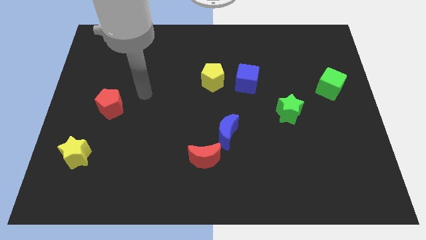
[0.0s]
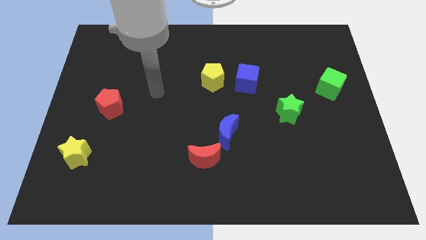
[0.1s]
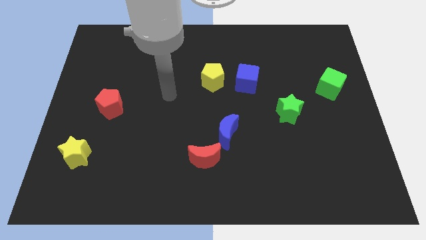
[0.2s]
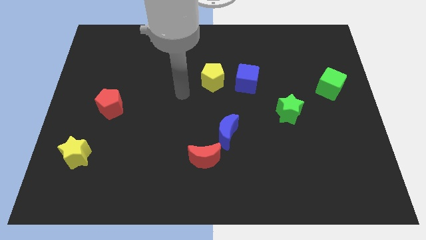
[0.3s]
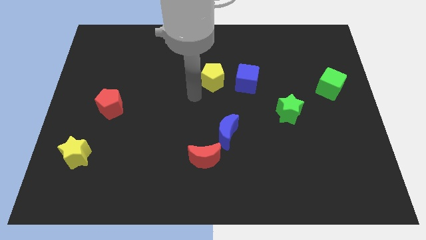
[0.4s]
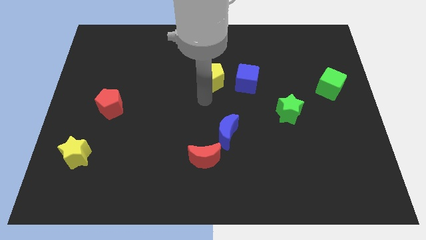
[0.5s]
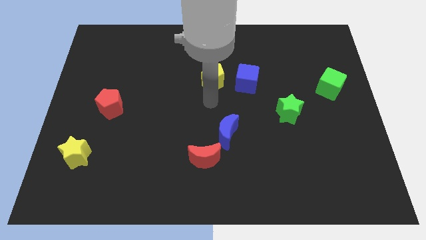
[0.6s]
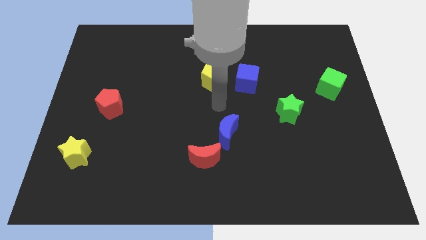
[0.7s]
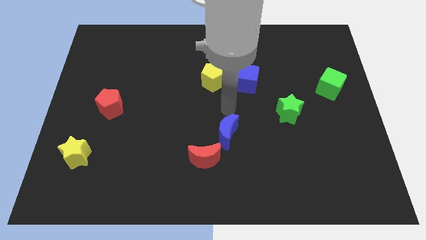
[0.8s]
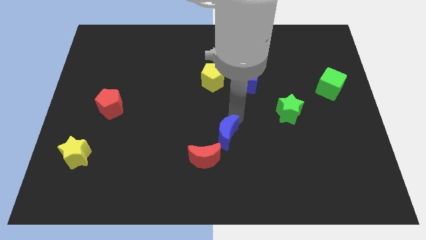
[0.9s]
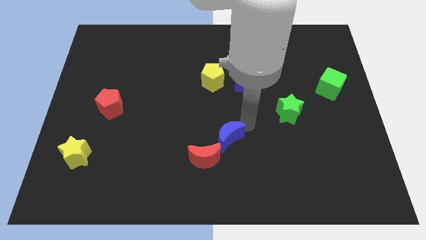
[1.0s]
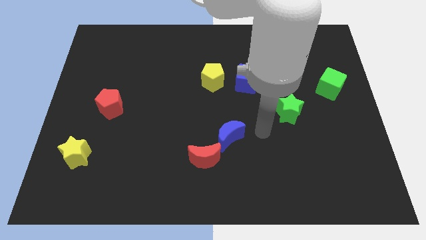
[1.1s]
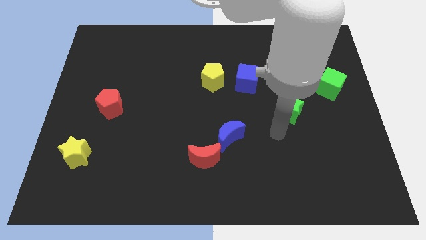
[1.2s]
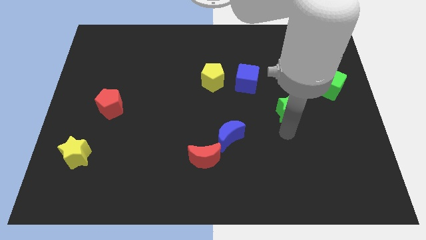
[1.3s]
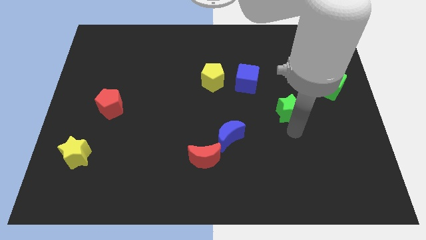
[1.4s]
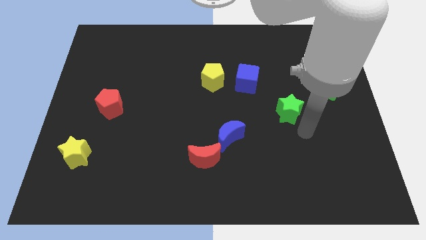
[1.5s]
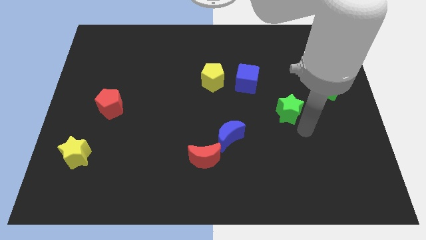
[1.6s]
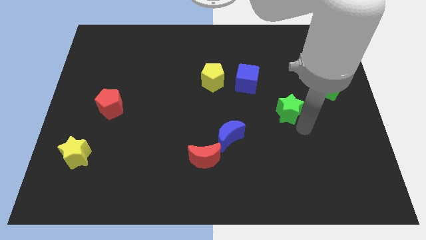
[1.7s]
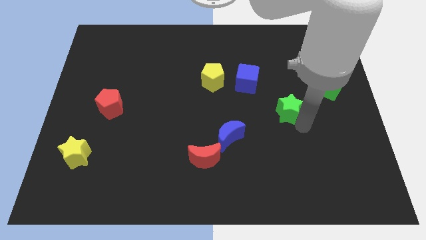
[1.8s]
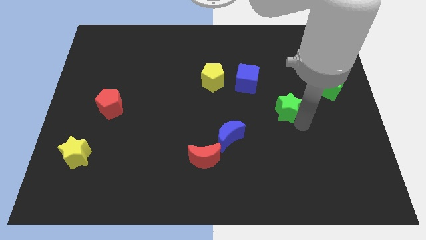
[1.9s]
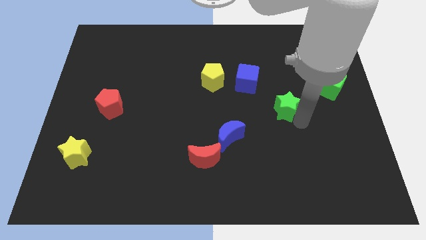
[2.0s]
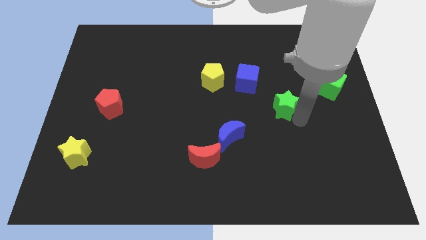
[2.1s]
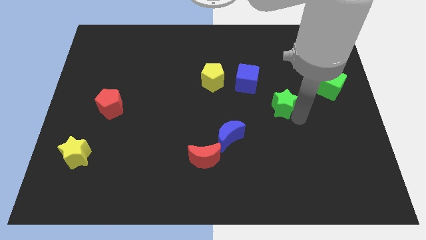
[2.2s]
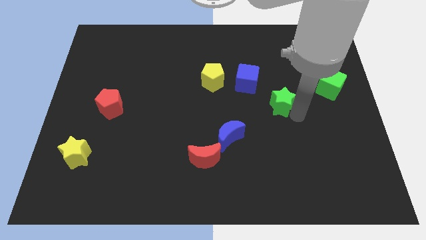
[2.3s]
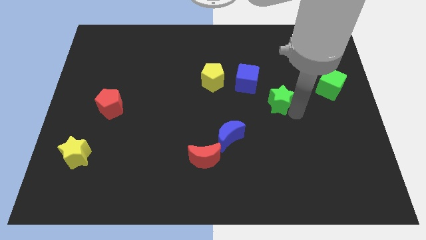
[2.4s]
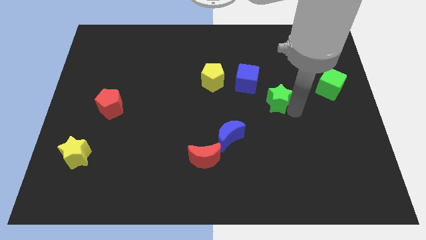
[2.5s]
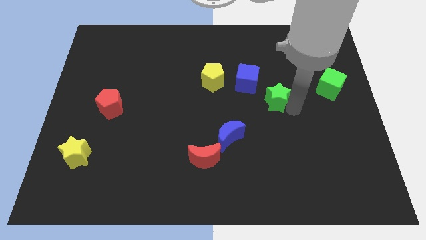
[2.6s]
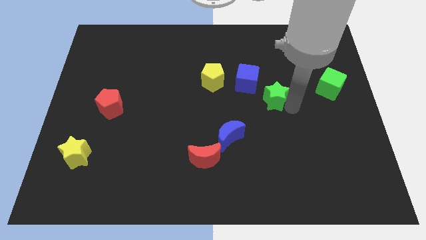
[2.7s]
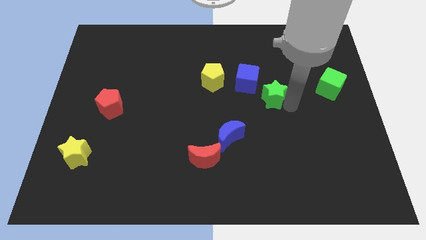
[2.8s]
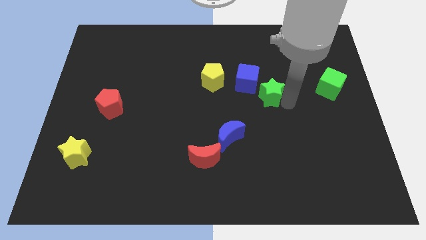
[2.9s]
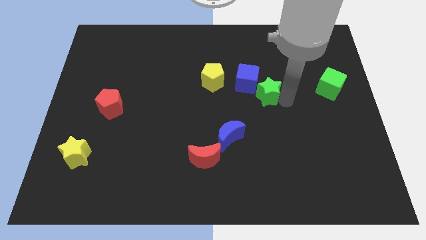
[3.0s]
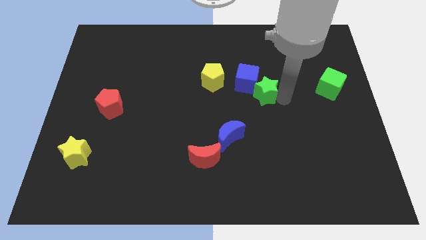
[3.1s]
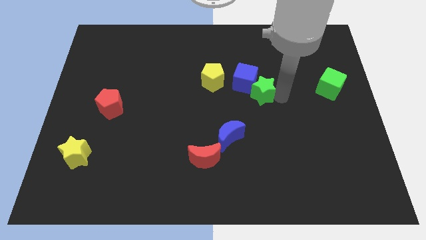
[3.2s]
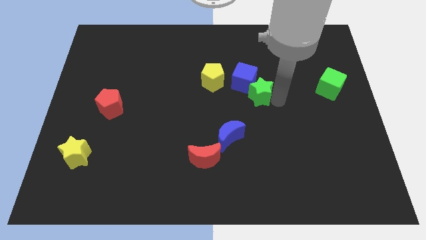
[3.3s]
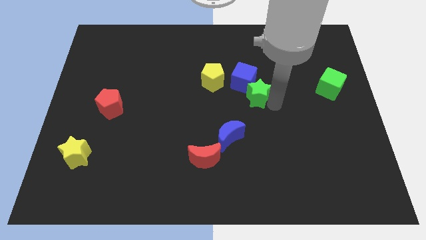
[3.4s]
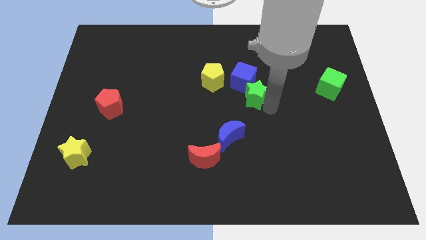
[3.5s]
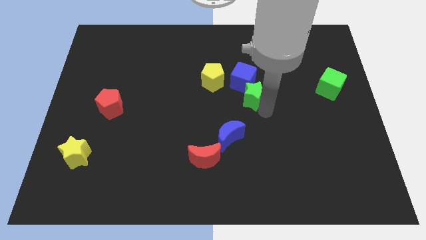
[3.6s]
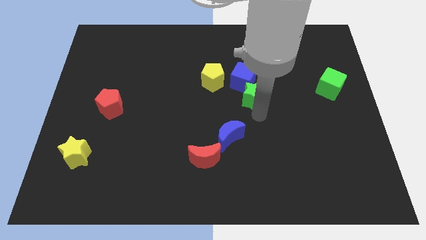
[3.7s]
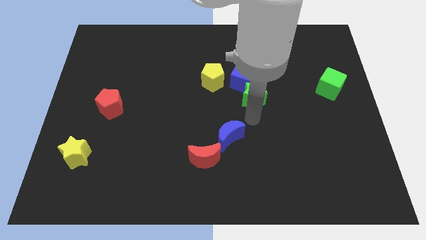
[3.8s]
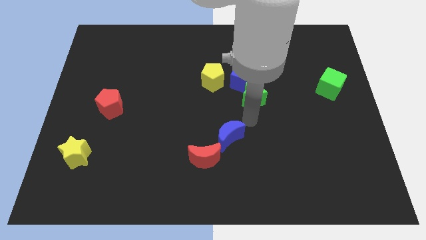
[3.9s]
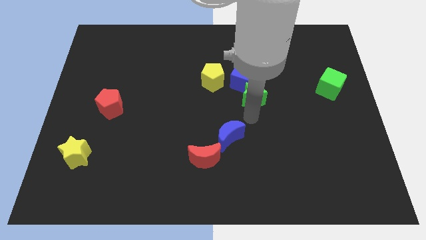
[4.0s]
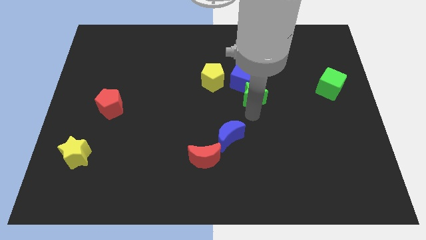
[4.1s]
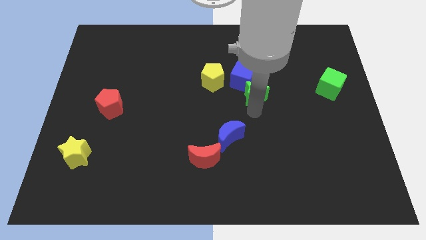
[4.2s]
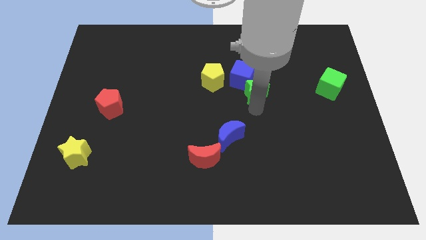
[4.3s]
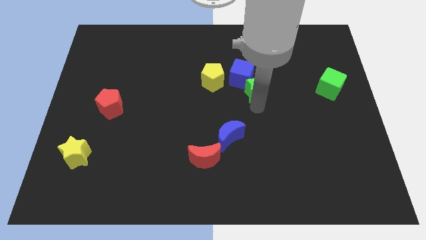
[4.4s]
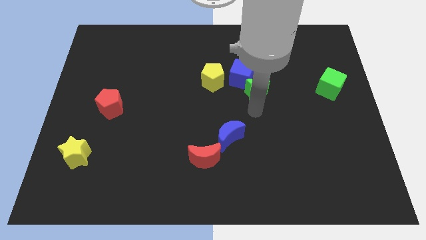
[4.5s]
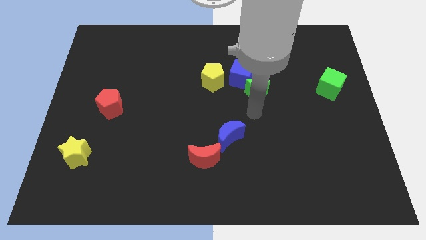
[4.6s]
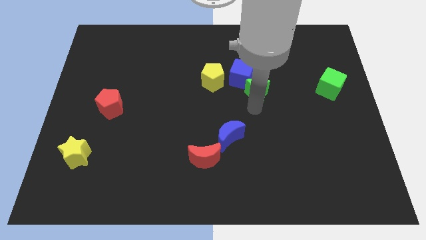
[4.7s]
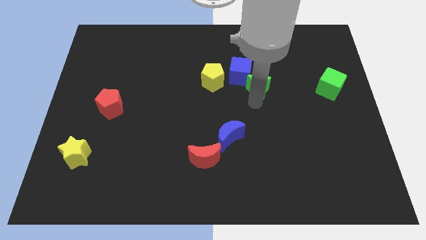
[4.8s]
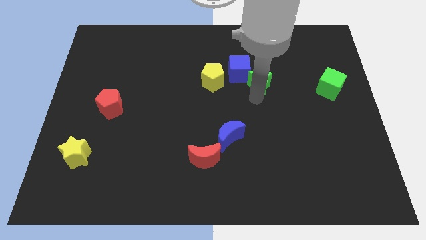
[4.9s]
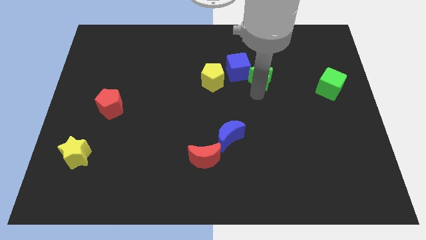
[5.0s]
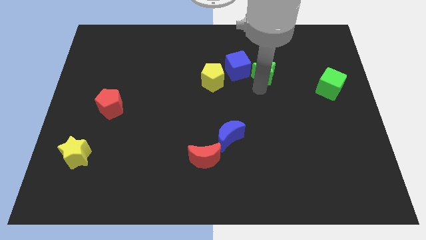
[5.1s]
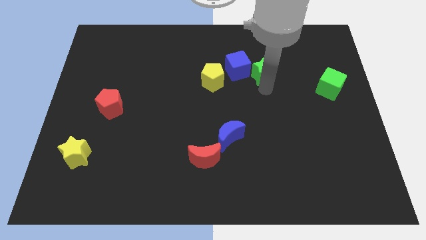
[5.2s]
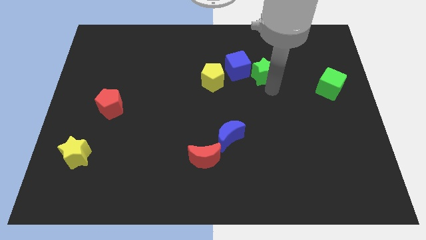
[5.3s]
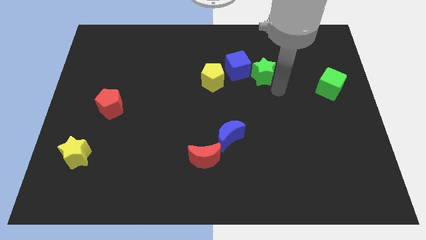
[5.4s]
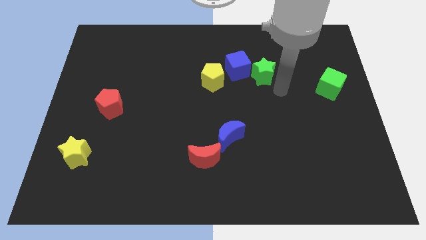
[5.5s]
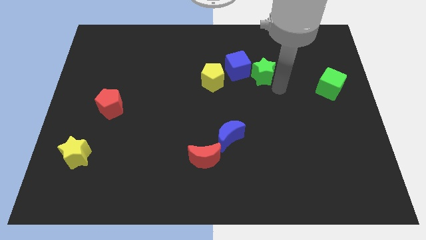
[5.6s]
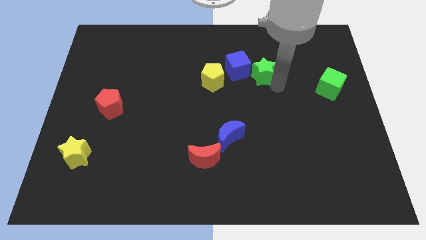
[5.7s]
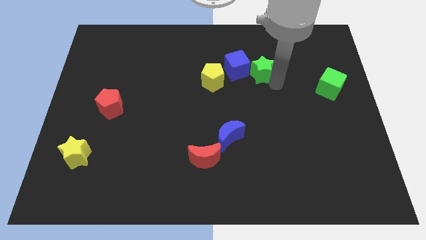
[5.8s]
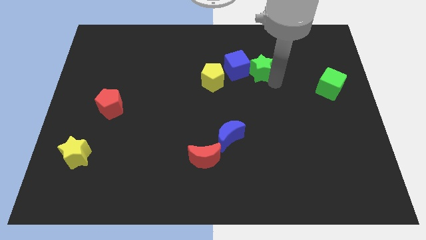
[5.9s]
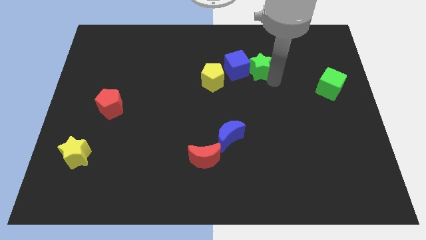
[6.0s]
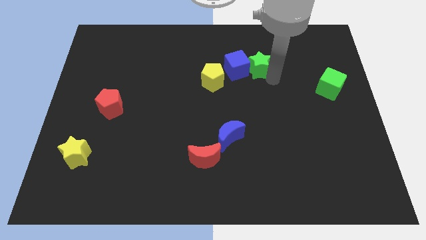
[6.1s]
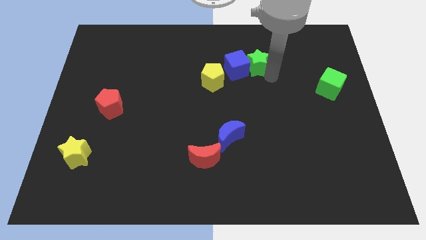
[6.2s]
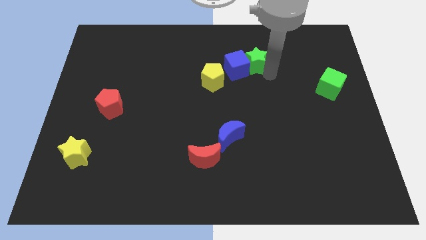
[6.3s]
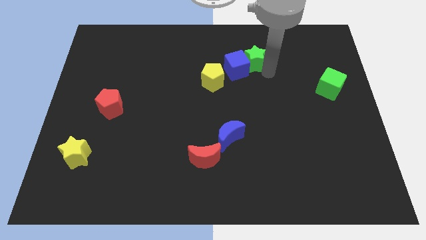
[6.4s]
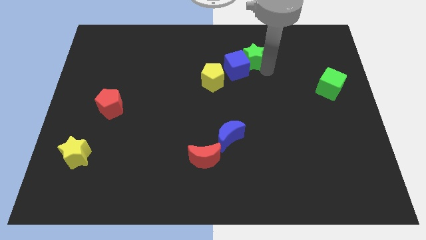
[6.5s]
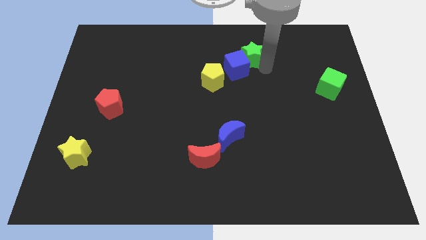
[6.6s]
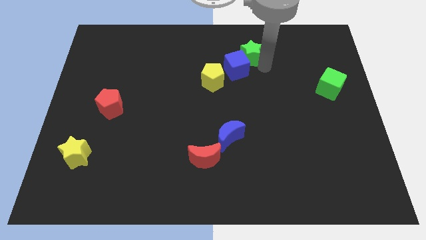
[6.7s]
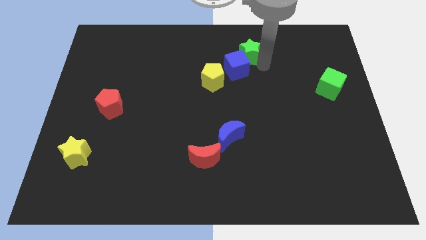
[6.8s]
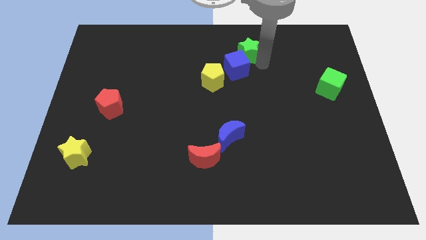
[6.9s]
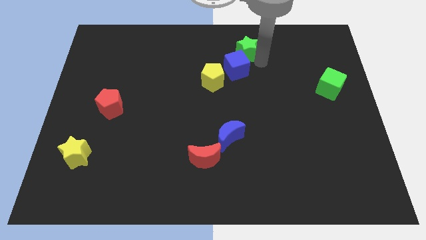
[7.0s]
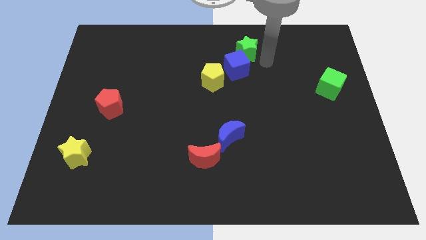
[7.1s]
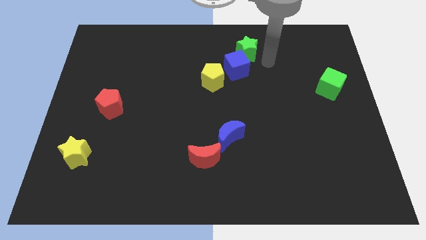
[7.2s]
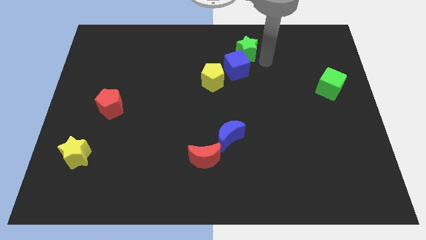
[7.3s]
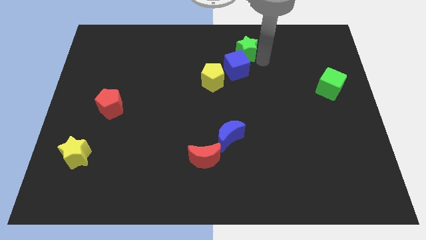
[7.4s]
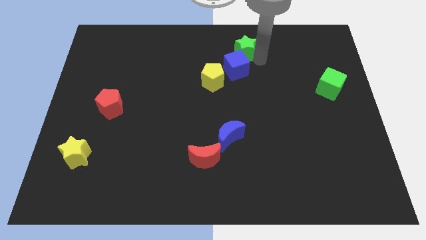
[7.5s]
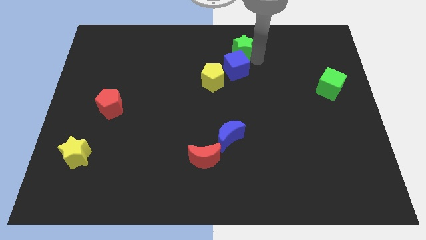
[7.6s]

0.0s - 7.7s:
push the green star to the towards your base
